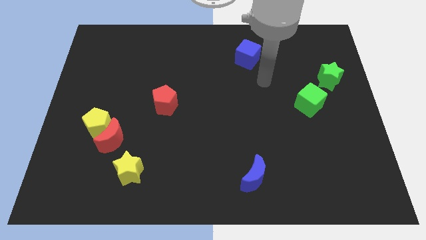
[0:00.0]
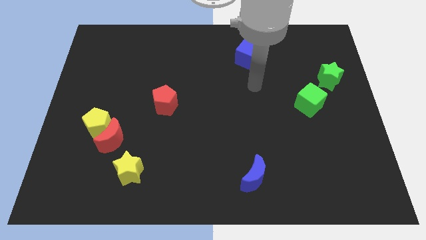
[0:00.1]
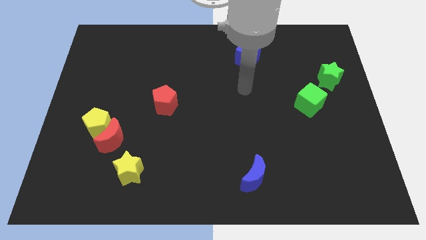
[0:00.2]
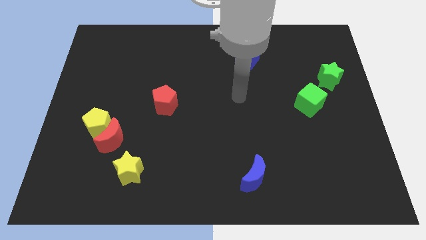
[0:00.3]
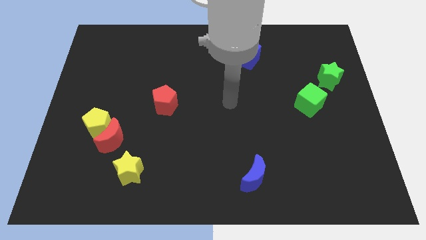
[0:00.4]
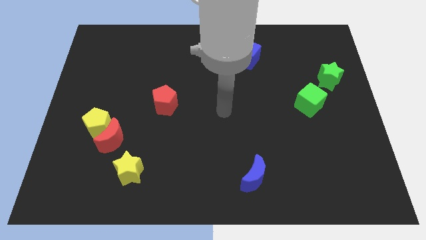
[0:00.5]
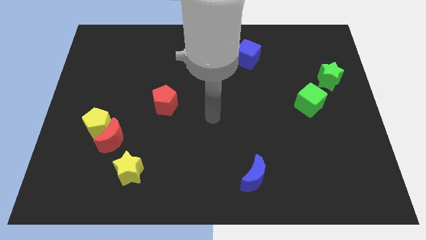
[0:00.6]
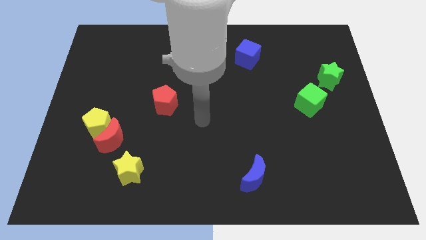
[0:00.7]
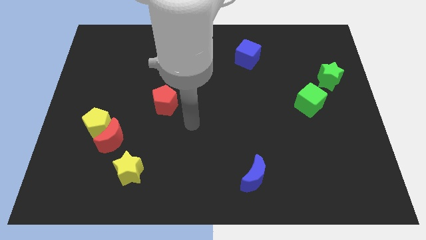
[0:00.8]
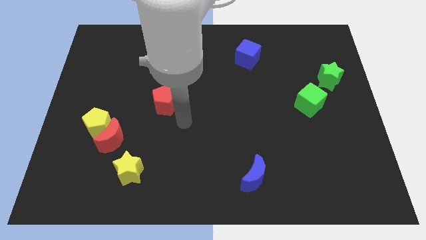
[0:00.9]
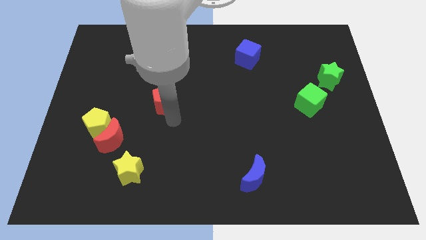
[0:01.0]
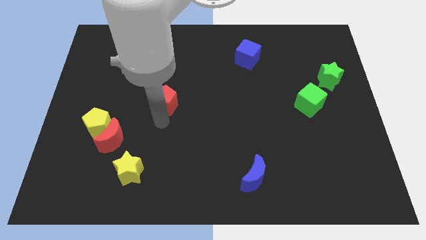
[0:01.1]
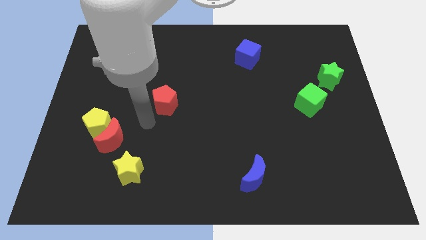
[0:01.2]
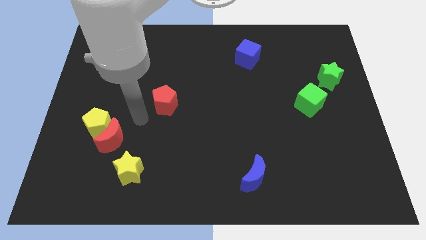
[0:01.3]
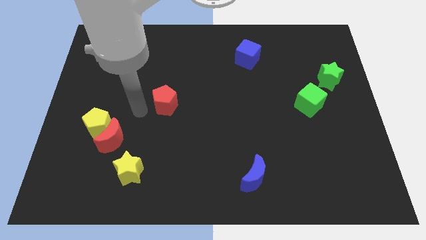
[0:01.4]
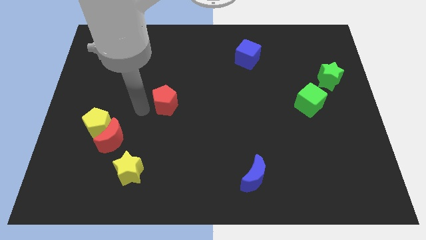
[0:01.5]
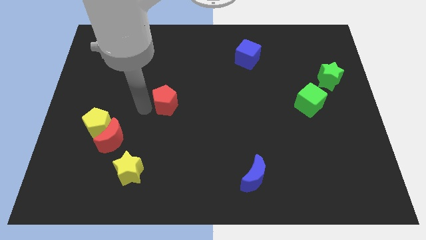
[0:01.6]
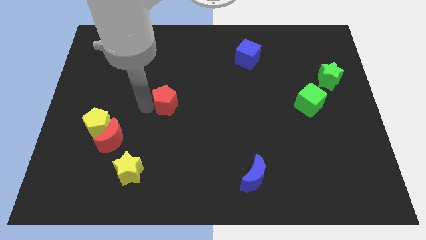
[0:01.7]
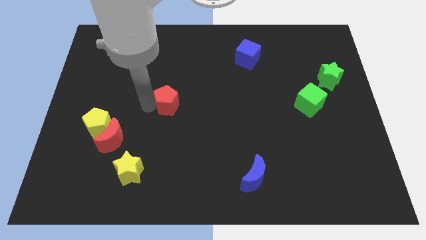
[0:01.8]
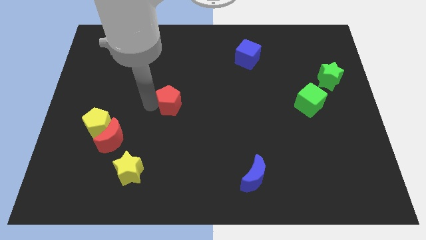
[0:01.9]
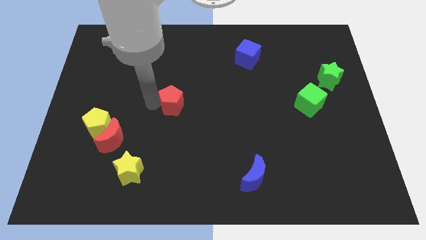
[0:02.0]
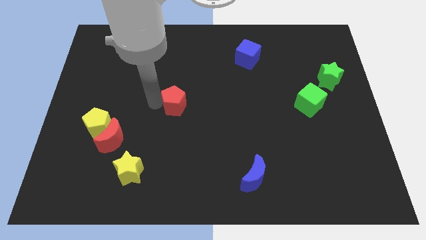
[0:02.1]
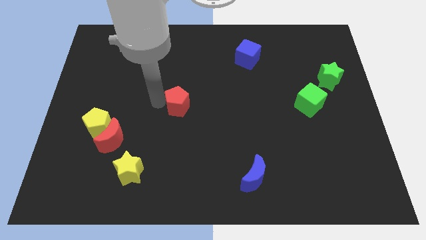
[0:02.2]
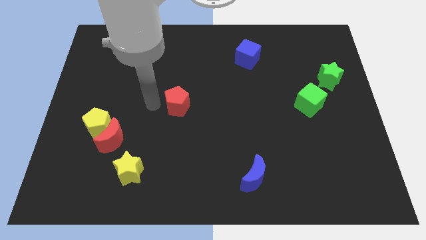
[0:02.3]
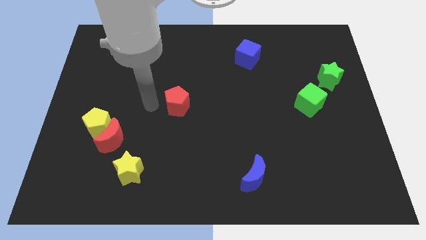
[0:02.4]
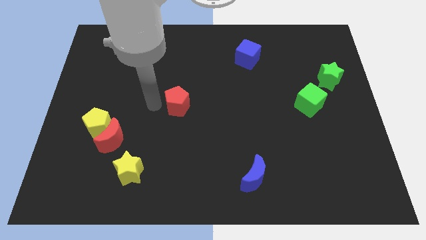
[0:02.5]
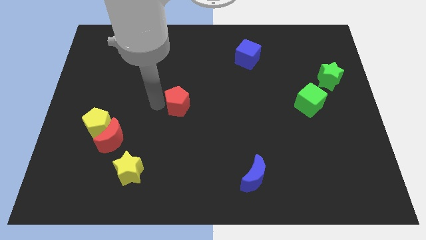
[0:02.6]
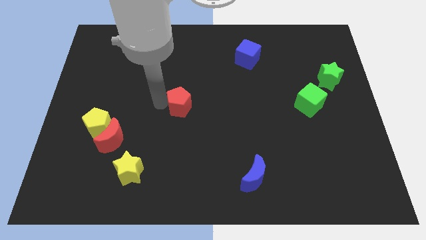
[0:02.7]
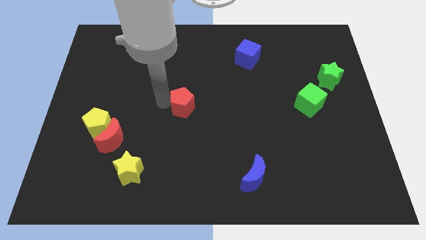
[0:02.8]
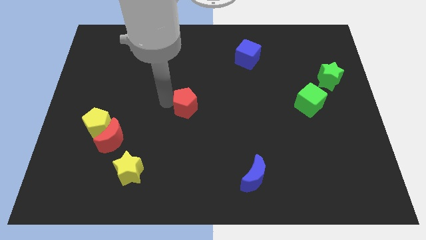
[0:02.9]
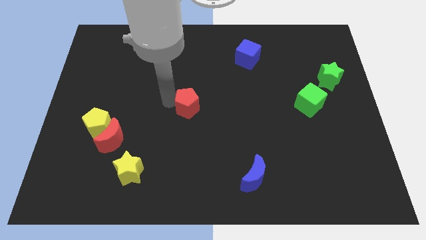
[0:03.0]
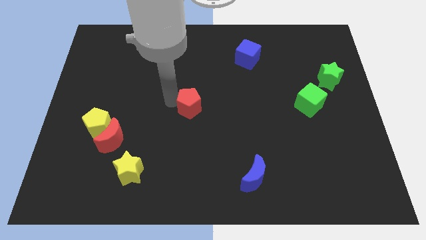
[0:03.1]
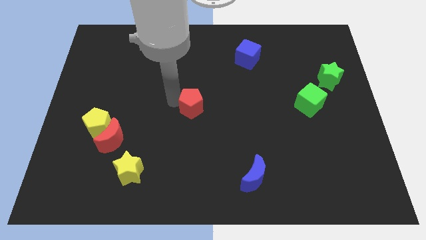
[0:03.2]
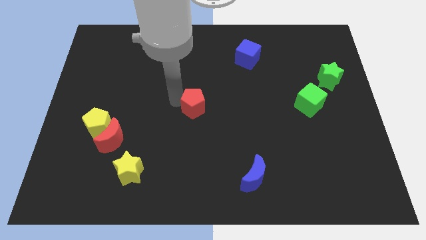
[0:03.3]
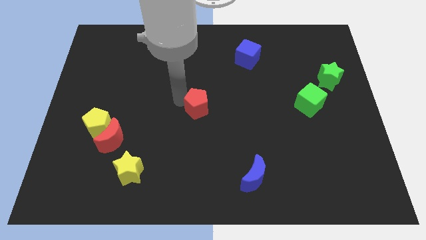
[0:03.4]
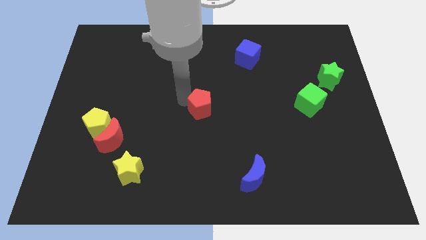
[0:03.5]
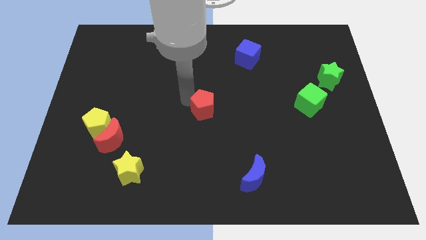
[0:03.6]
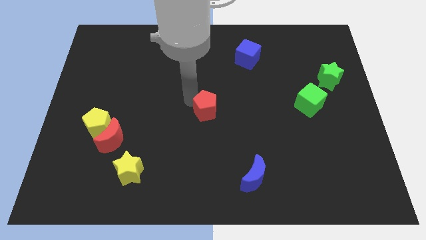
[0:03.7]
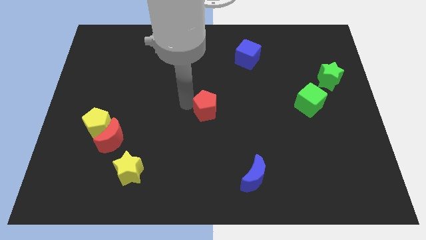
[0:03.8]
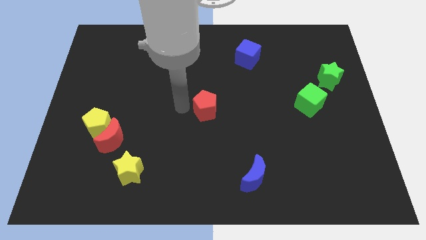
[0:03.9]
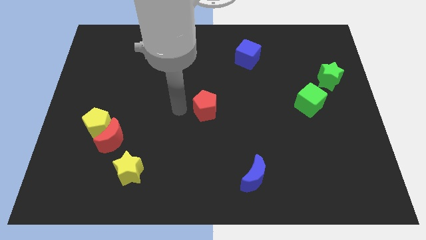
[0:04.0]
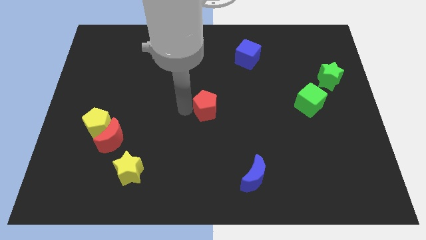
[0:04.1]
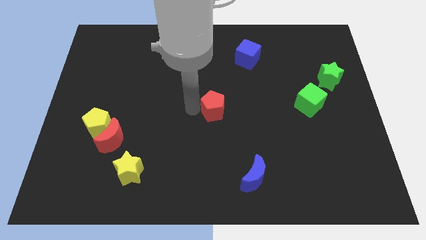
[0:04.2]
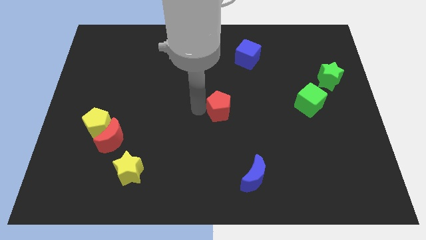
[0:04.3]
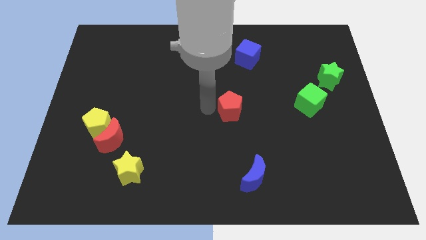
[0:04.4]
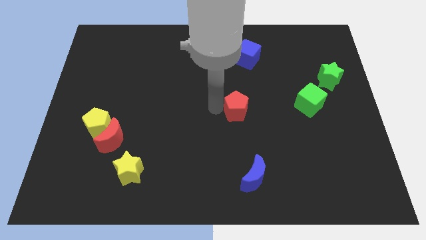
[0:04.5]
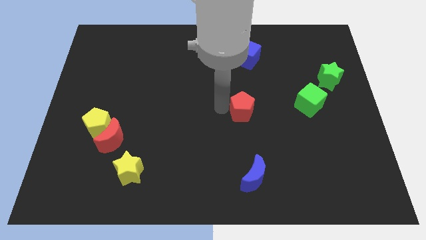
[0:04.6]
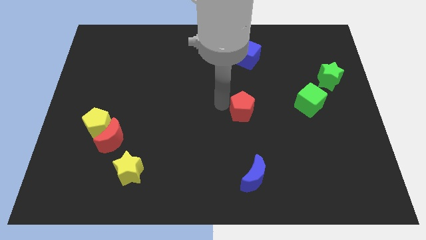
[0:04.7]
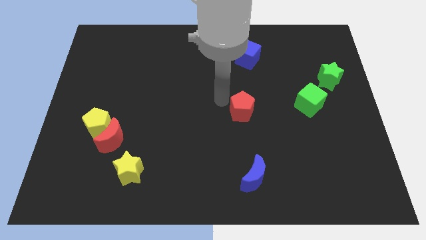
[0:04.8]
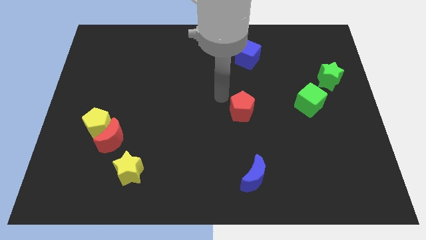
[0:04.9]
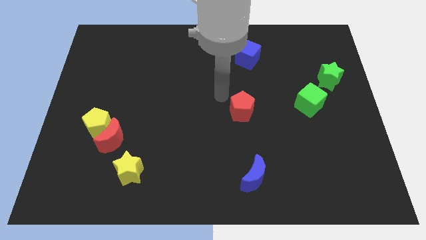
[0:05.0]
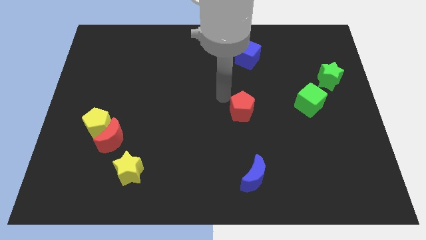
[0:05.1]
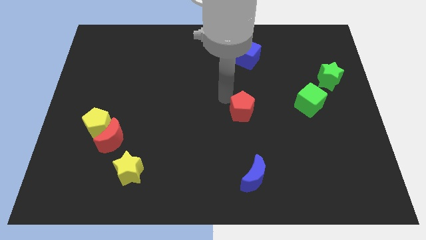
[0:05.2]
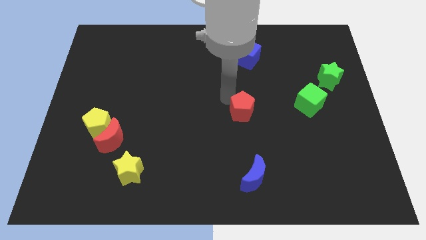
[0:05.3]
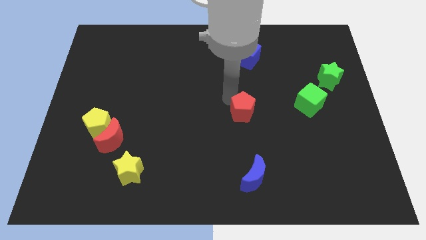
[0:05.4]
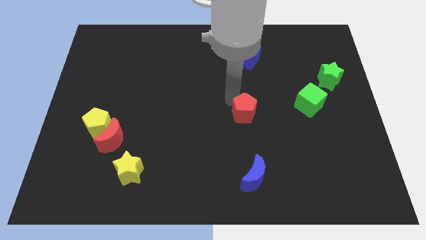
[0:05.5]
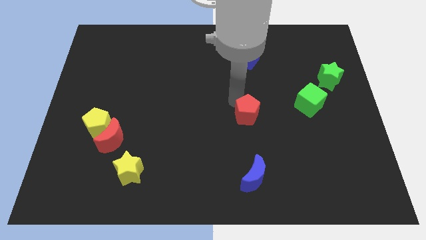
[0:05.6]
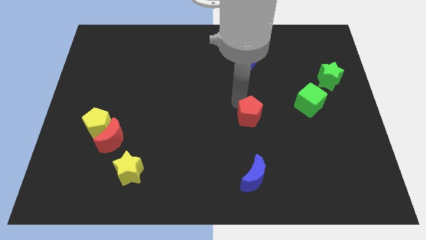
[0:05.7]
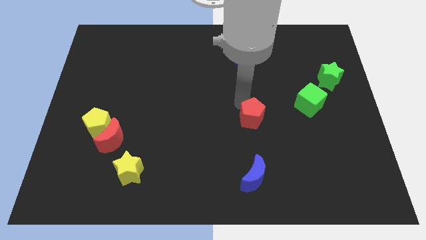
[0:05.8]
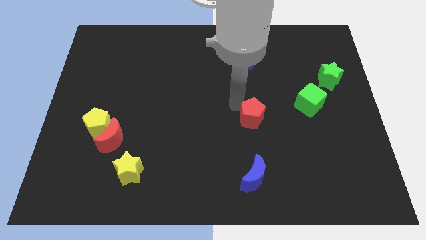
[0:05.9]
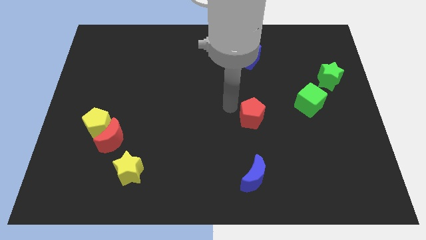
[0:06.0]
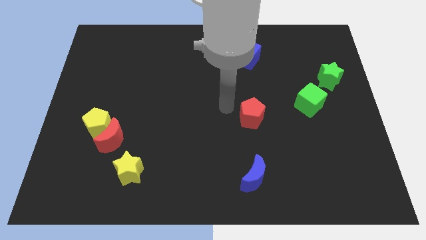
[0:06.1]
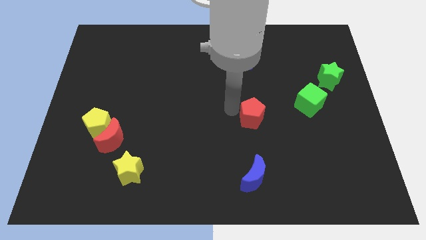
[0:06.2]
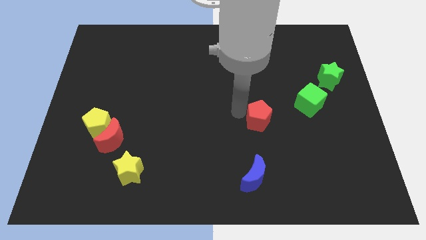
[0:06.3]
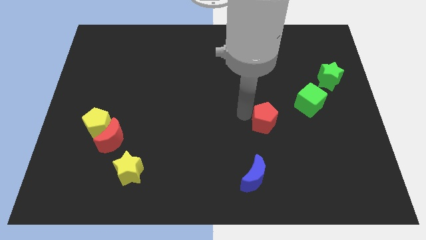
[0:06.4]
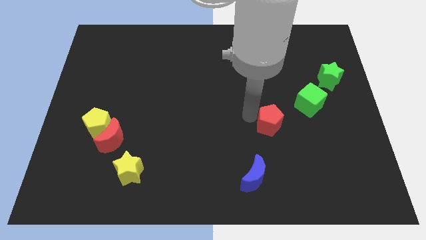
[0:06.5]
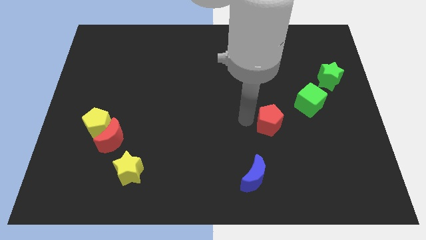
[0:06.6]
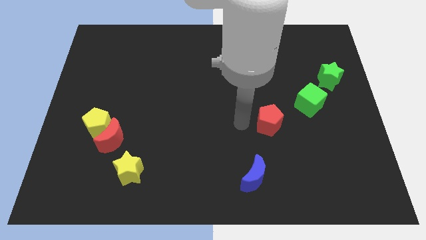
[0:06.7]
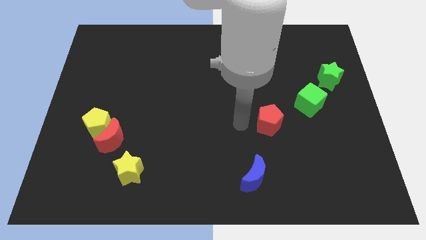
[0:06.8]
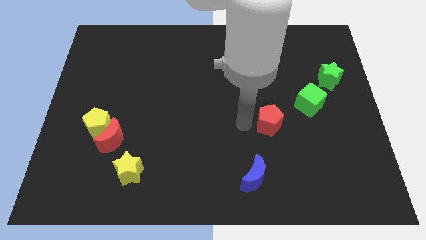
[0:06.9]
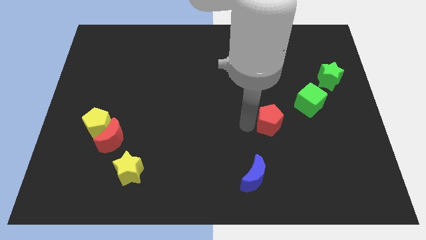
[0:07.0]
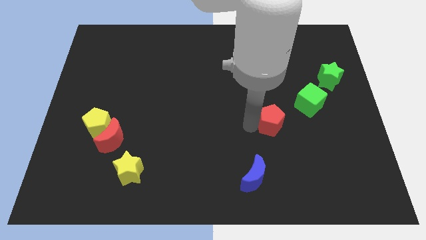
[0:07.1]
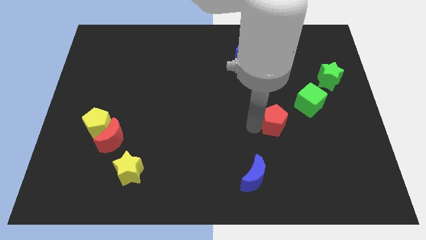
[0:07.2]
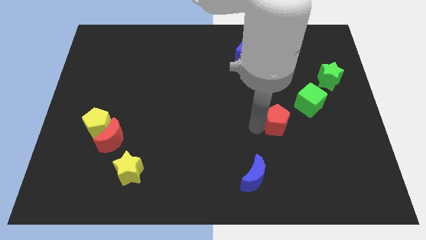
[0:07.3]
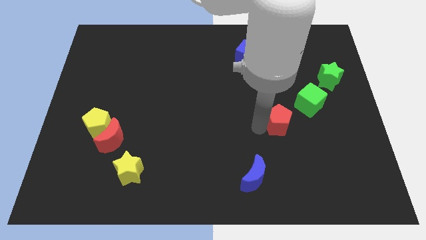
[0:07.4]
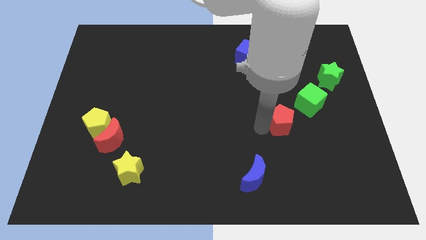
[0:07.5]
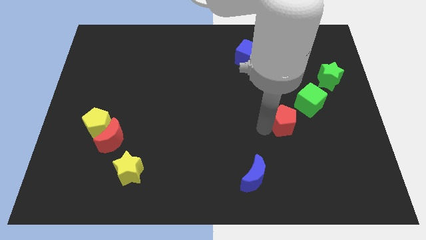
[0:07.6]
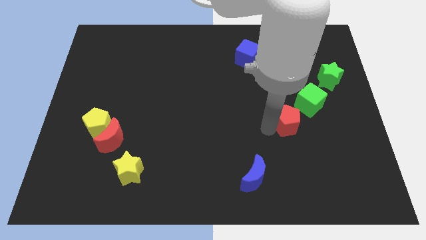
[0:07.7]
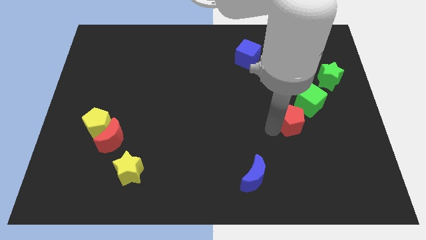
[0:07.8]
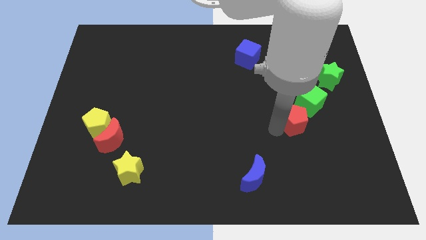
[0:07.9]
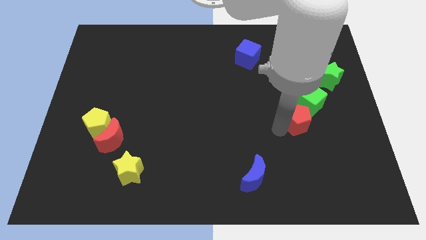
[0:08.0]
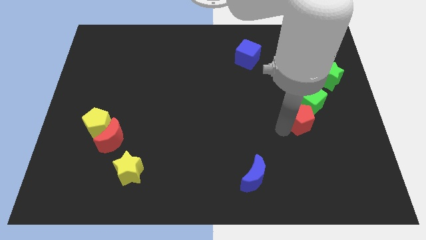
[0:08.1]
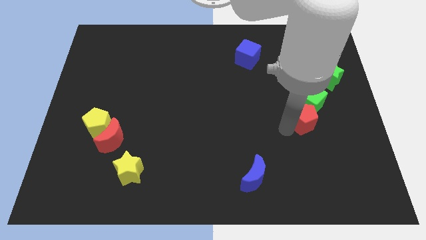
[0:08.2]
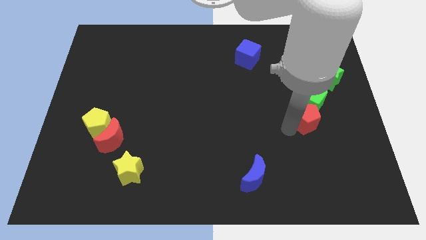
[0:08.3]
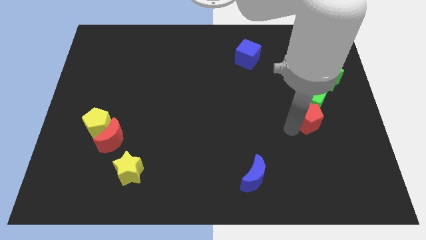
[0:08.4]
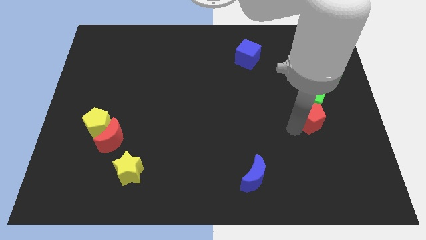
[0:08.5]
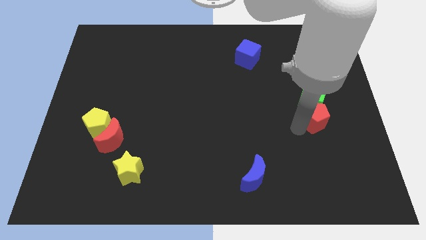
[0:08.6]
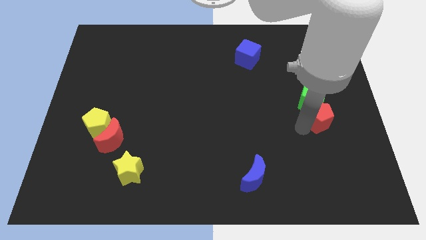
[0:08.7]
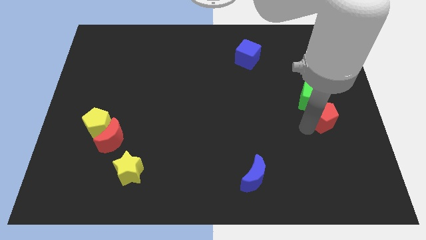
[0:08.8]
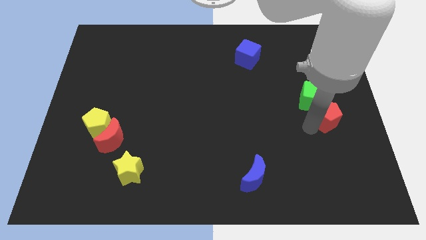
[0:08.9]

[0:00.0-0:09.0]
push the red pentagon to the center right
